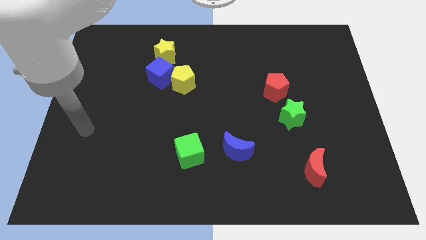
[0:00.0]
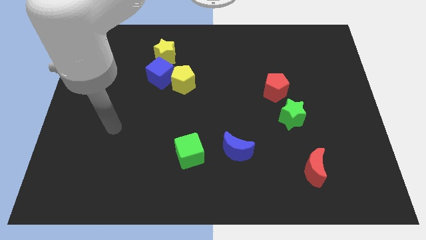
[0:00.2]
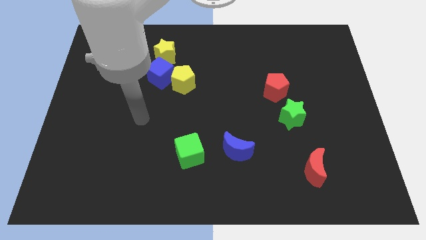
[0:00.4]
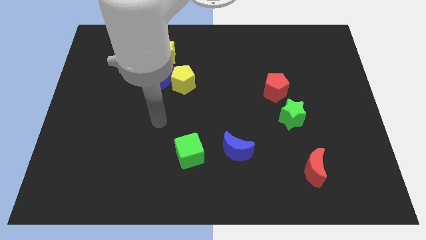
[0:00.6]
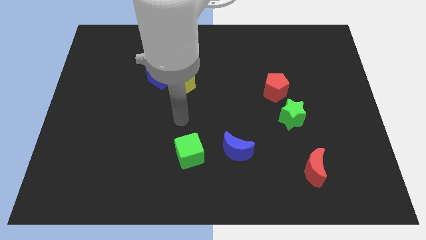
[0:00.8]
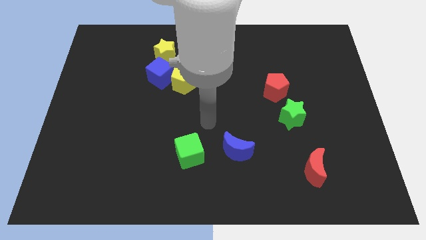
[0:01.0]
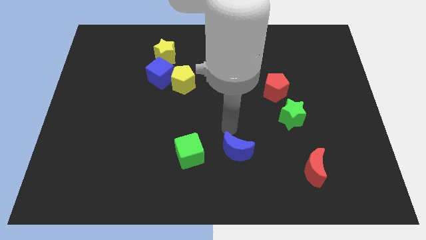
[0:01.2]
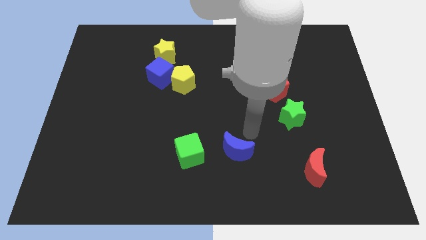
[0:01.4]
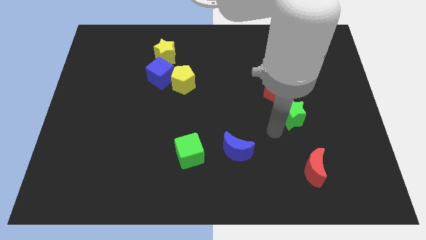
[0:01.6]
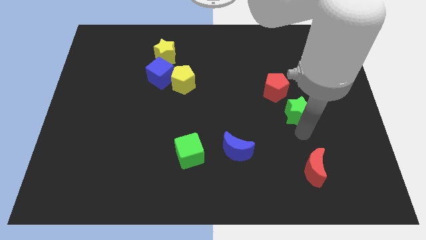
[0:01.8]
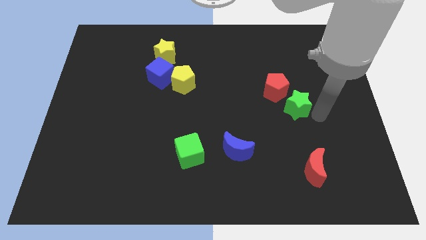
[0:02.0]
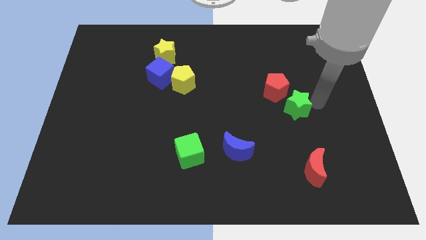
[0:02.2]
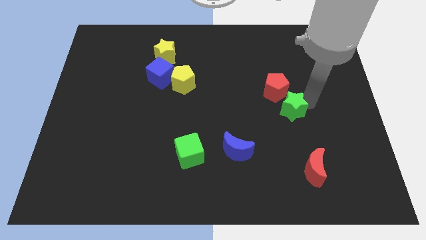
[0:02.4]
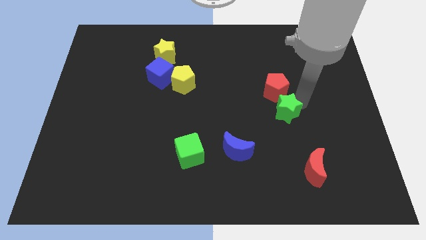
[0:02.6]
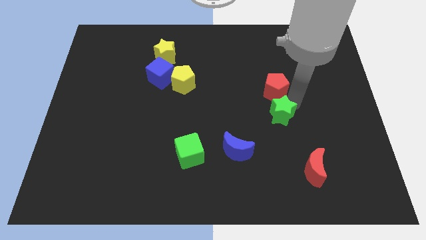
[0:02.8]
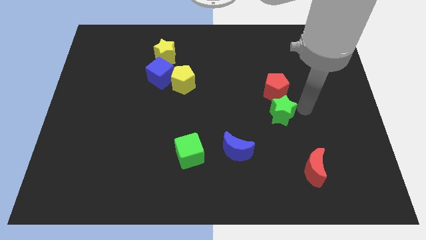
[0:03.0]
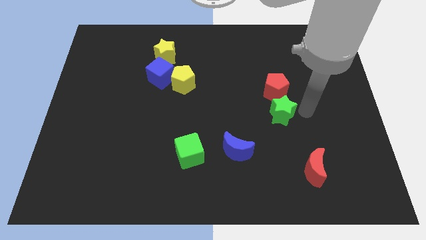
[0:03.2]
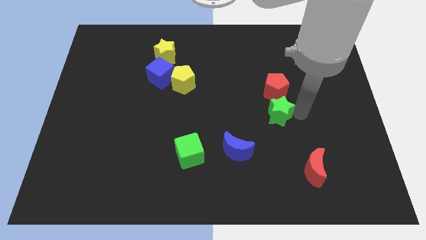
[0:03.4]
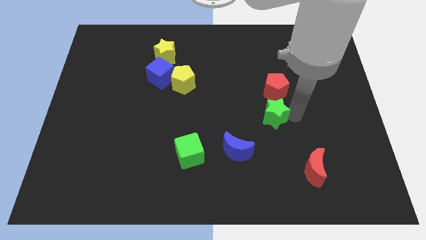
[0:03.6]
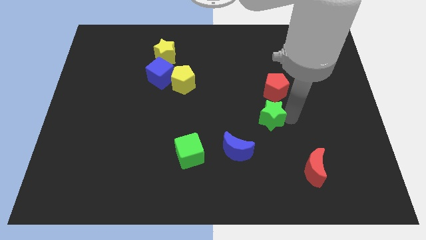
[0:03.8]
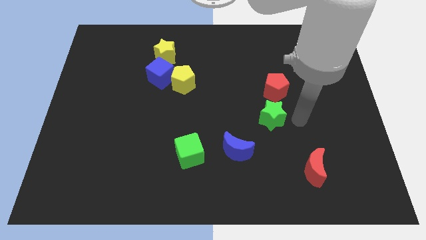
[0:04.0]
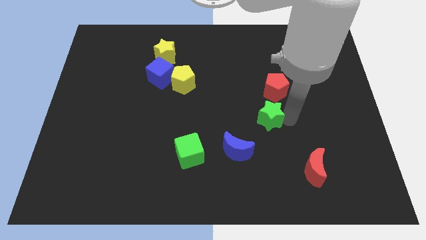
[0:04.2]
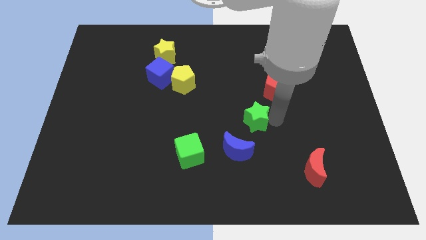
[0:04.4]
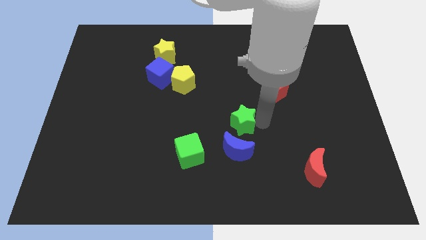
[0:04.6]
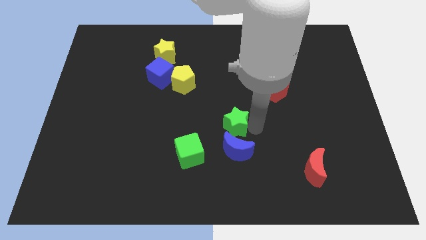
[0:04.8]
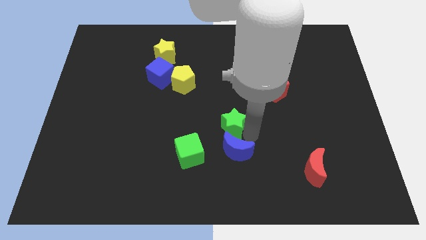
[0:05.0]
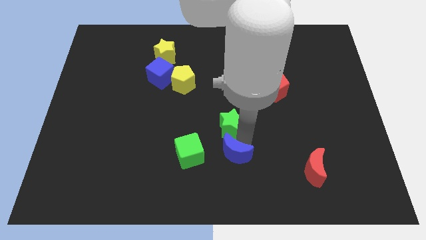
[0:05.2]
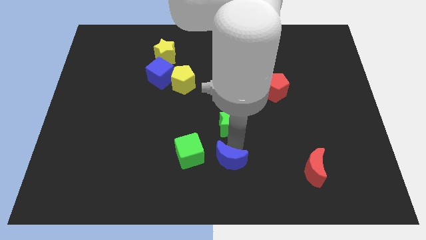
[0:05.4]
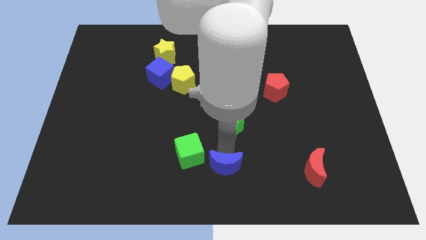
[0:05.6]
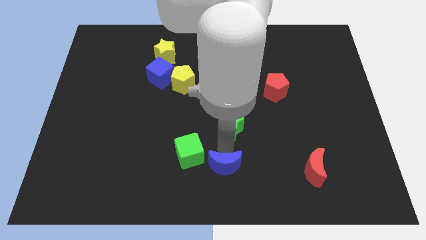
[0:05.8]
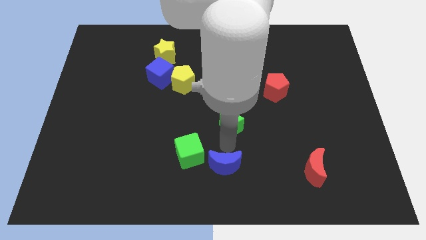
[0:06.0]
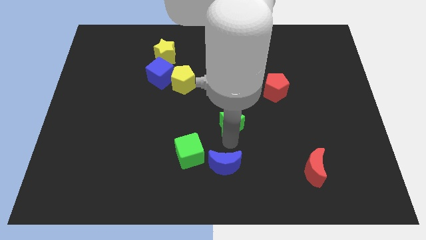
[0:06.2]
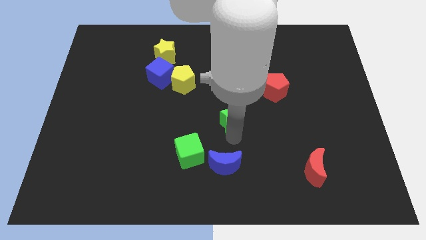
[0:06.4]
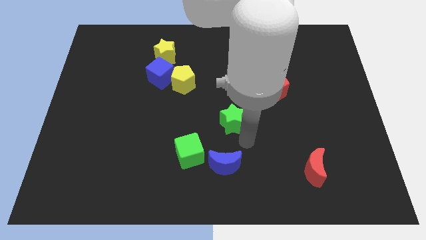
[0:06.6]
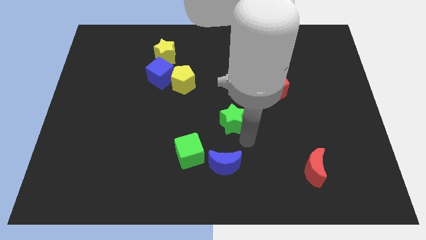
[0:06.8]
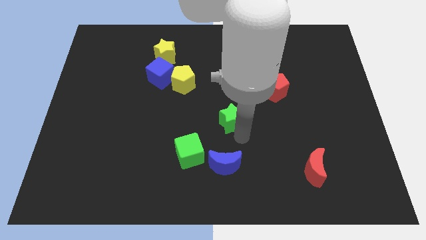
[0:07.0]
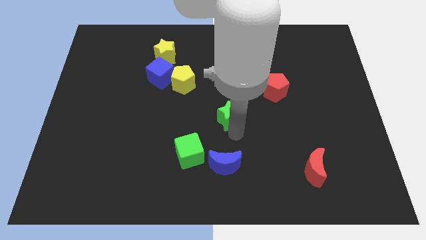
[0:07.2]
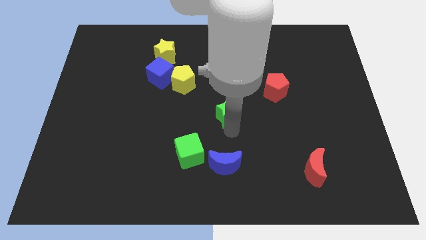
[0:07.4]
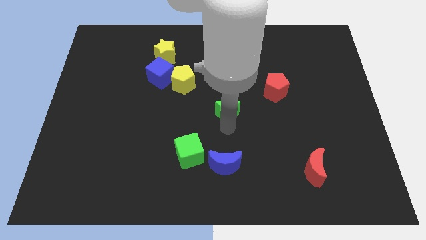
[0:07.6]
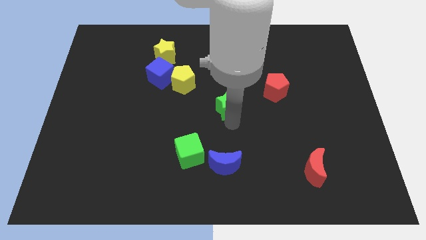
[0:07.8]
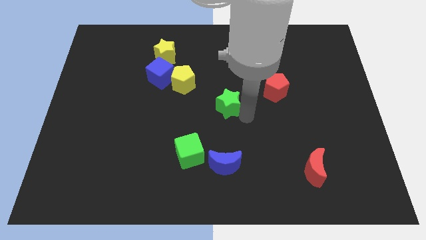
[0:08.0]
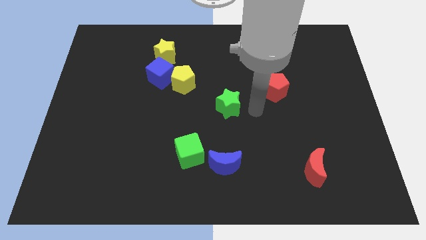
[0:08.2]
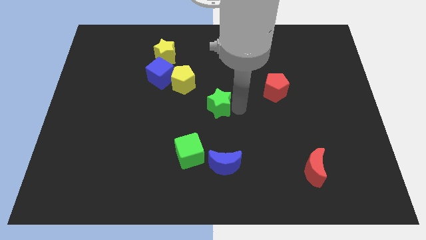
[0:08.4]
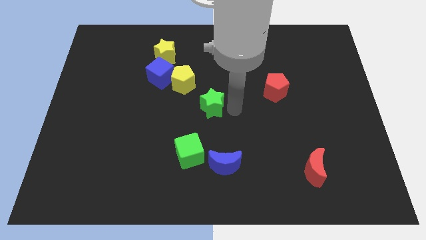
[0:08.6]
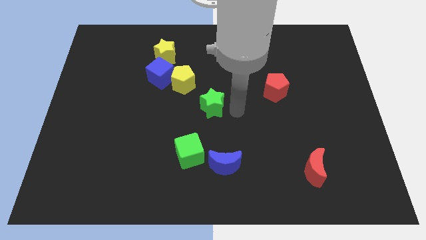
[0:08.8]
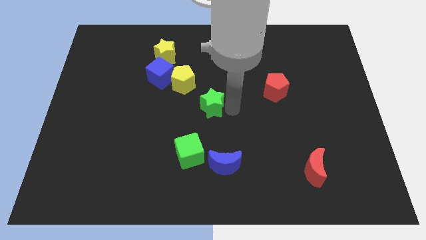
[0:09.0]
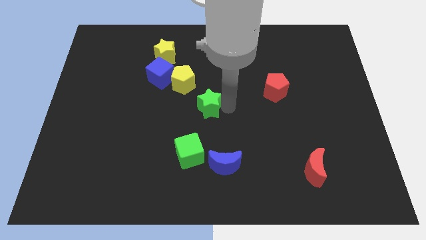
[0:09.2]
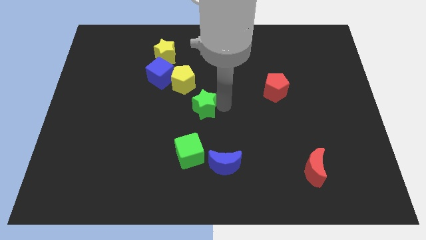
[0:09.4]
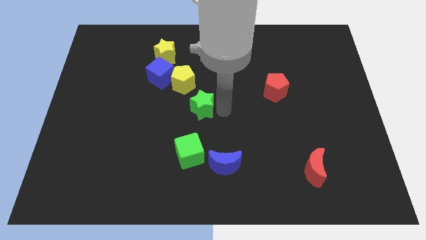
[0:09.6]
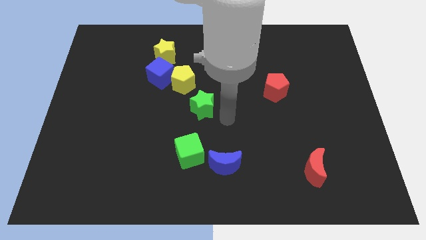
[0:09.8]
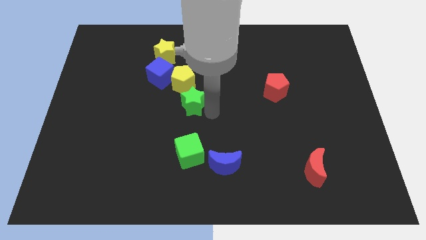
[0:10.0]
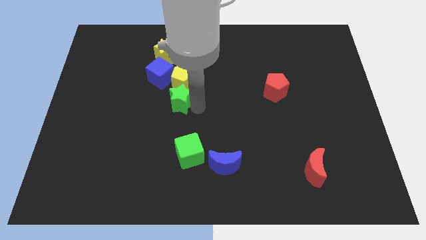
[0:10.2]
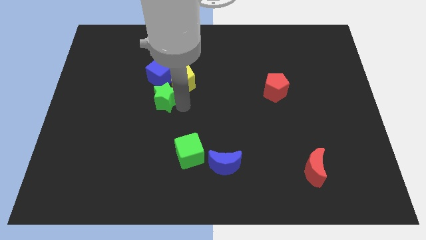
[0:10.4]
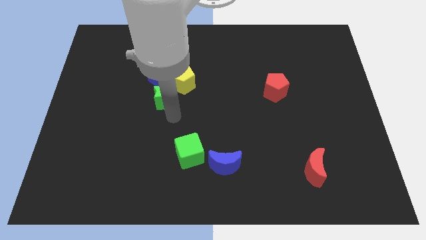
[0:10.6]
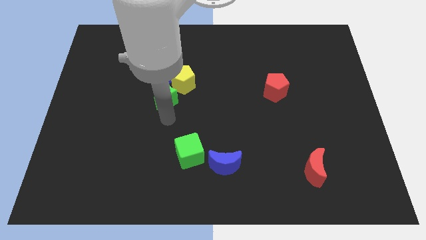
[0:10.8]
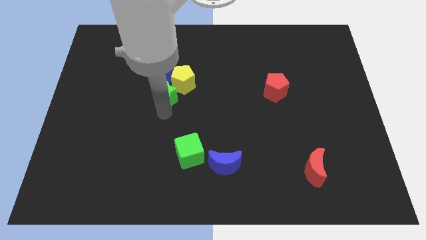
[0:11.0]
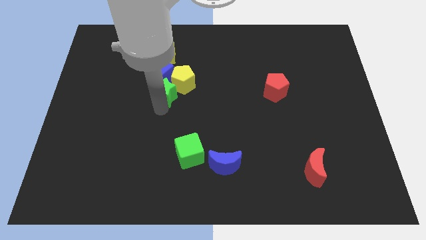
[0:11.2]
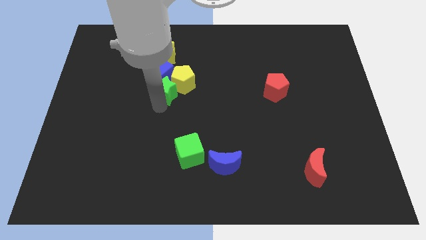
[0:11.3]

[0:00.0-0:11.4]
push the green star next to the blue cube

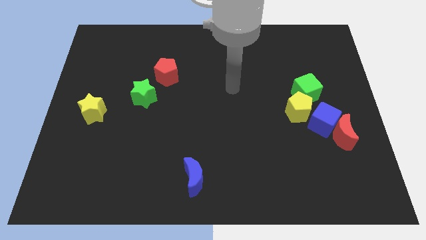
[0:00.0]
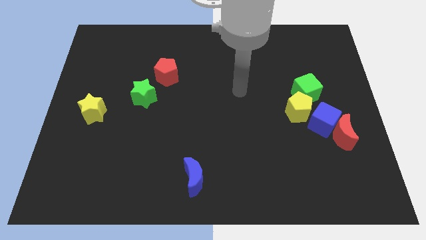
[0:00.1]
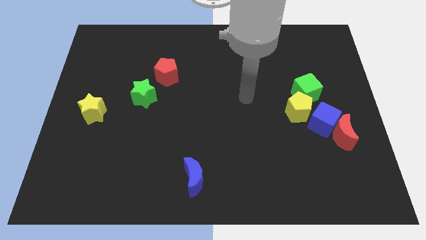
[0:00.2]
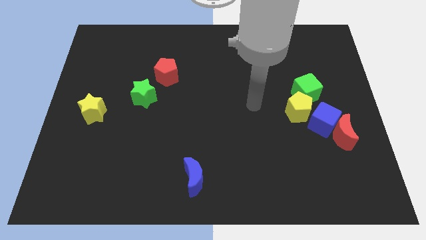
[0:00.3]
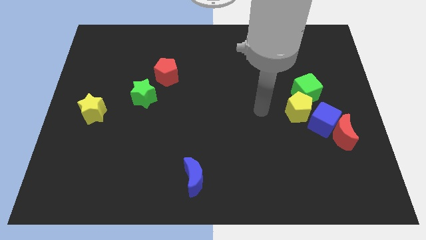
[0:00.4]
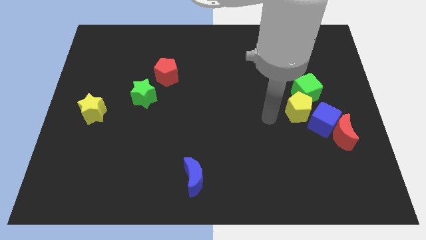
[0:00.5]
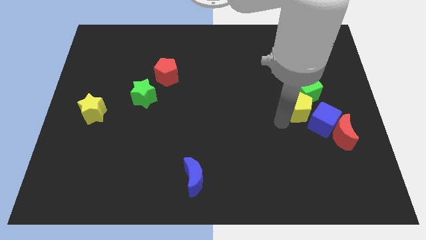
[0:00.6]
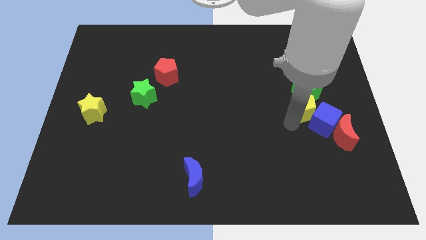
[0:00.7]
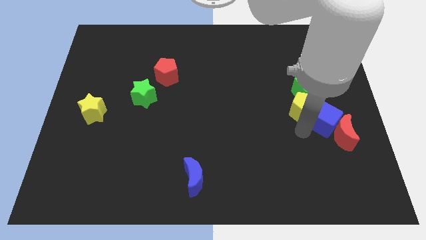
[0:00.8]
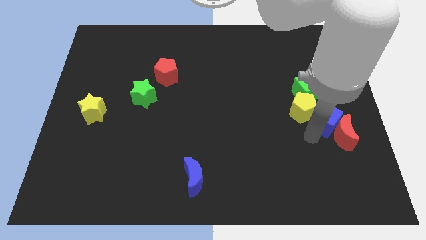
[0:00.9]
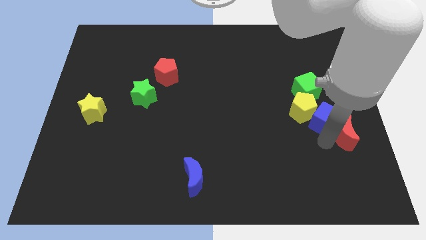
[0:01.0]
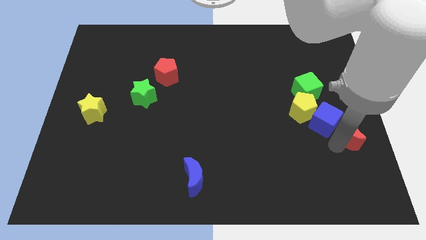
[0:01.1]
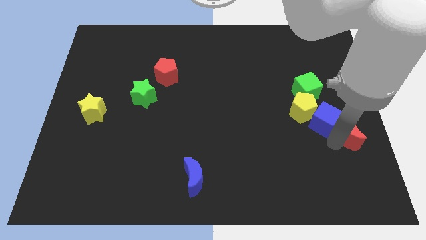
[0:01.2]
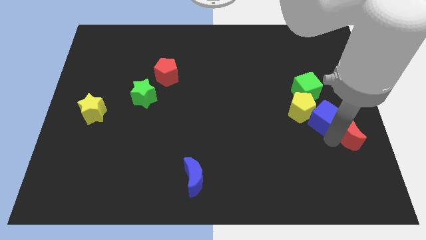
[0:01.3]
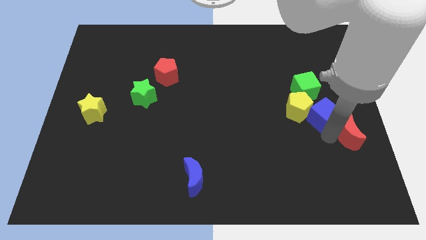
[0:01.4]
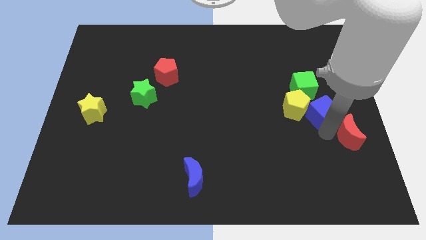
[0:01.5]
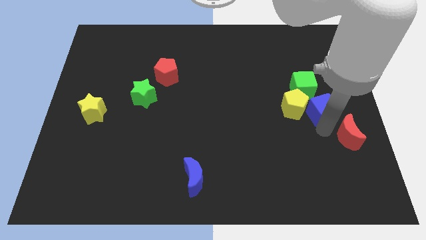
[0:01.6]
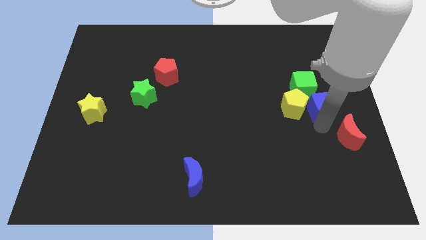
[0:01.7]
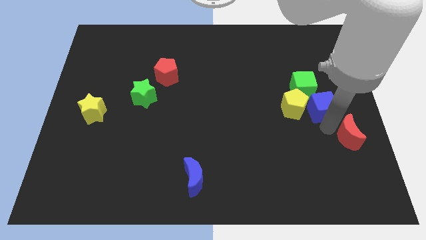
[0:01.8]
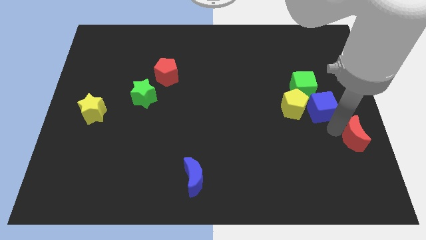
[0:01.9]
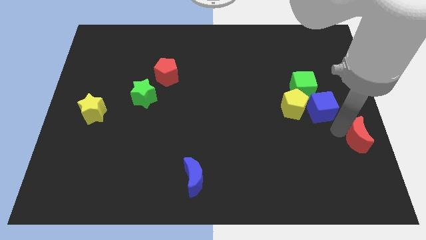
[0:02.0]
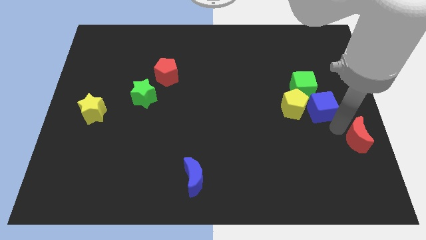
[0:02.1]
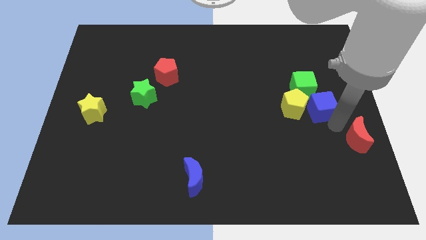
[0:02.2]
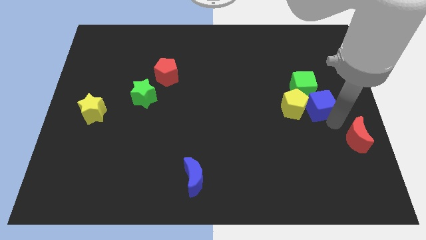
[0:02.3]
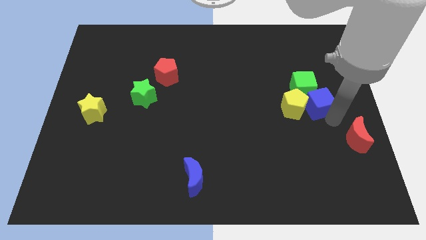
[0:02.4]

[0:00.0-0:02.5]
move the blue cube towards the green cube
